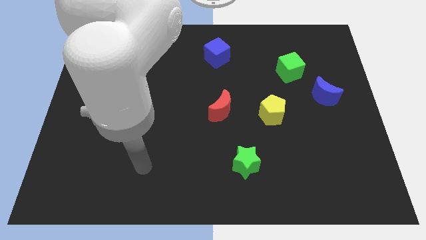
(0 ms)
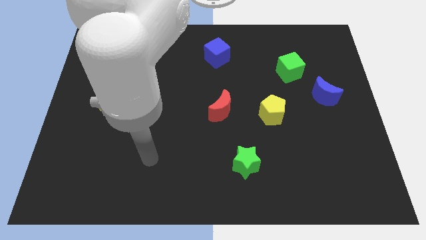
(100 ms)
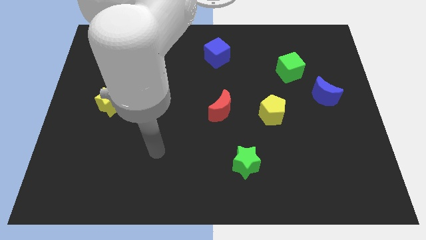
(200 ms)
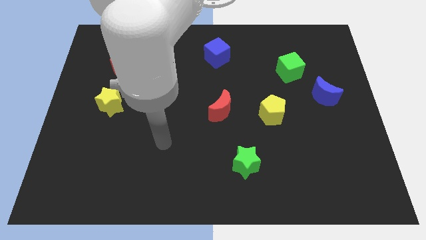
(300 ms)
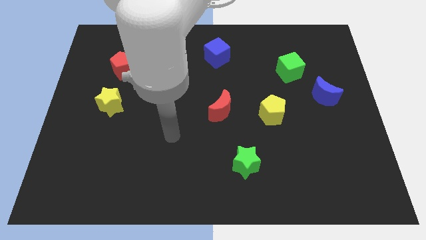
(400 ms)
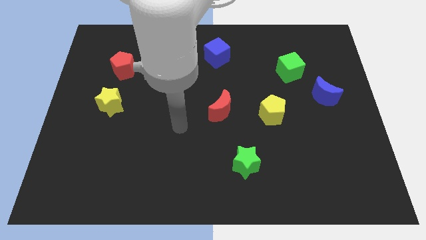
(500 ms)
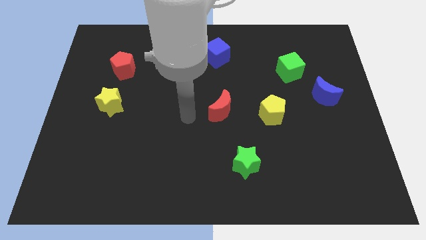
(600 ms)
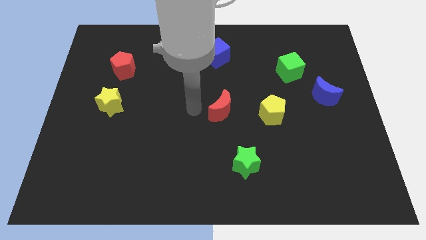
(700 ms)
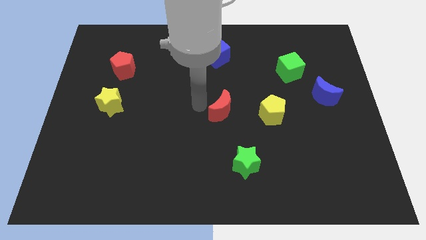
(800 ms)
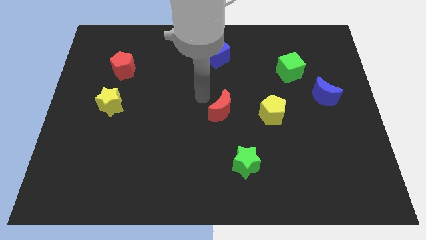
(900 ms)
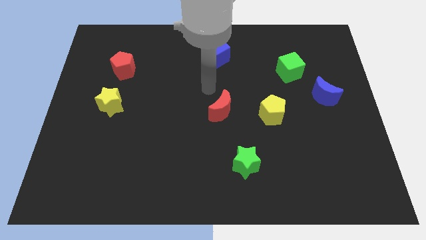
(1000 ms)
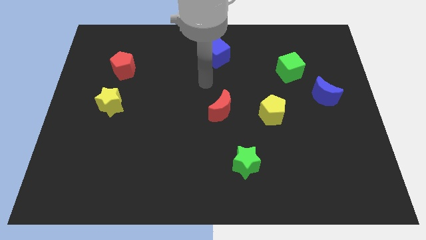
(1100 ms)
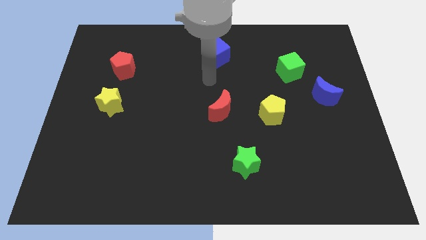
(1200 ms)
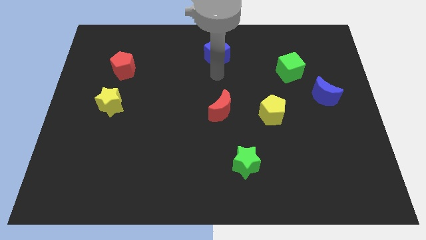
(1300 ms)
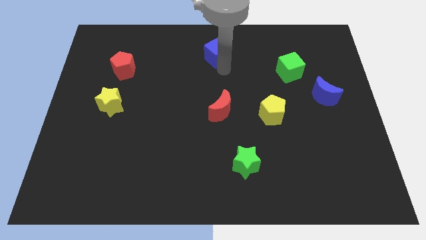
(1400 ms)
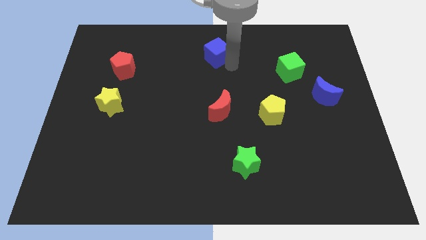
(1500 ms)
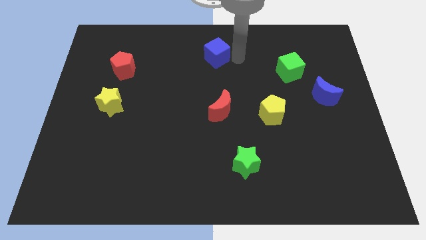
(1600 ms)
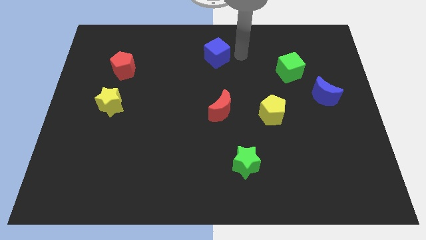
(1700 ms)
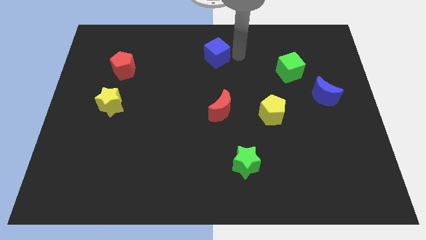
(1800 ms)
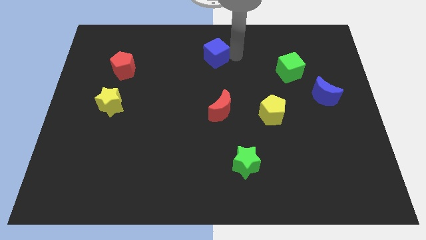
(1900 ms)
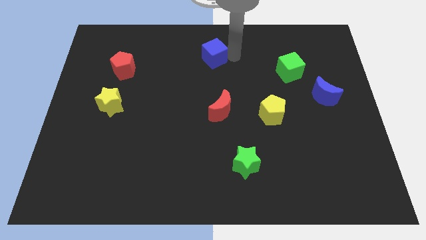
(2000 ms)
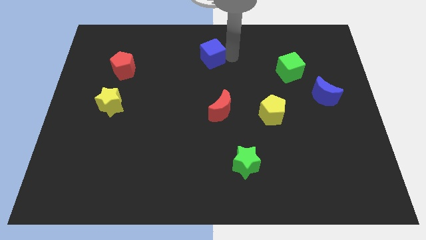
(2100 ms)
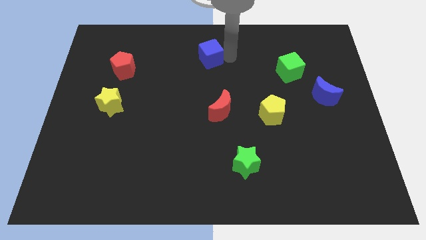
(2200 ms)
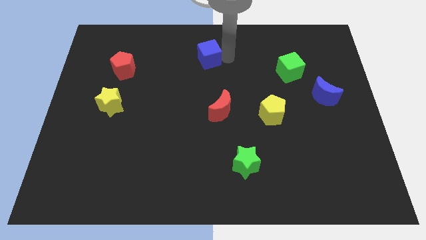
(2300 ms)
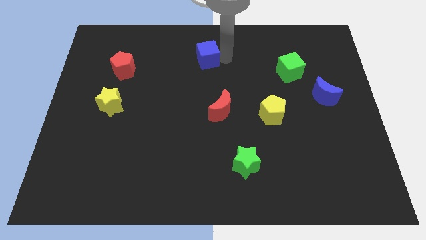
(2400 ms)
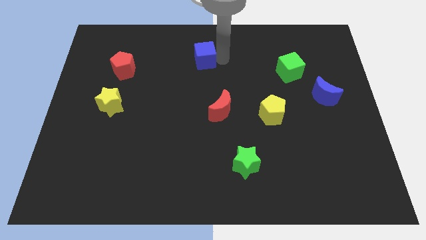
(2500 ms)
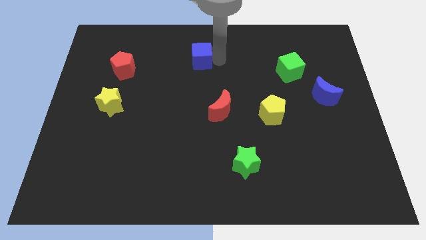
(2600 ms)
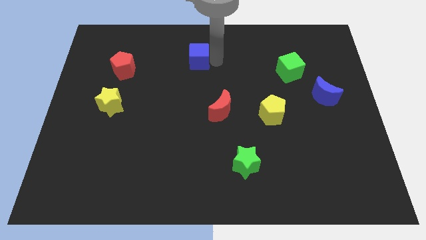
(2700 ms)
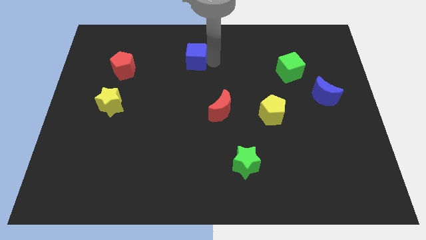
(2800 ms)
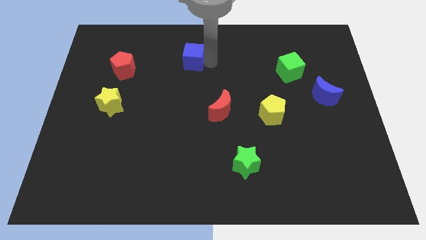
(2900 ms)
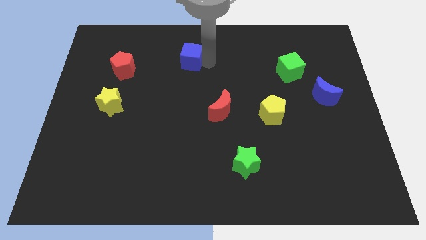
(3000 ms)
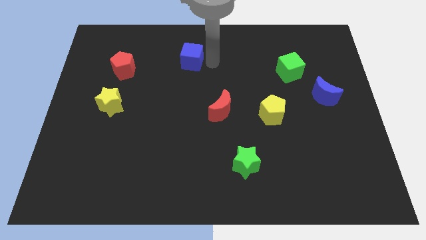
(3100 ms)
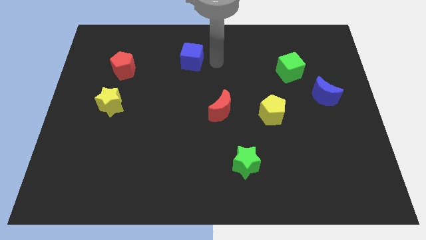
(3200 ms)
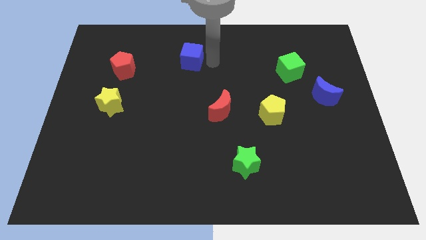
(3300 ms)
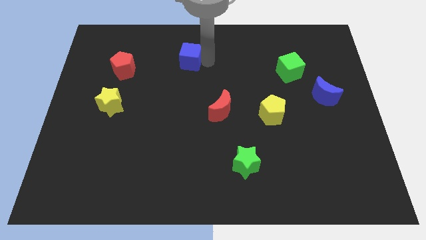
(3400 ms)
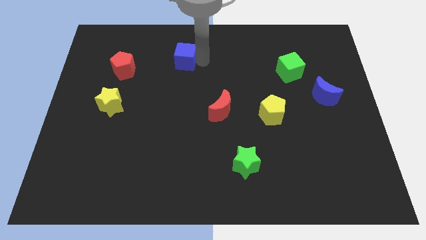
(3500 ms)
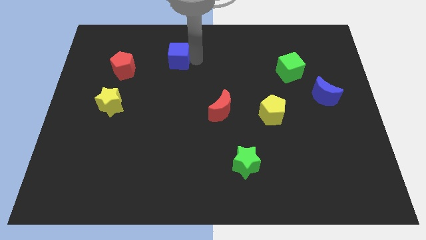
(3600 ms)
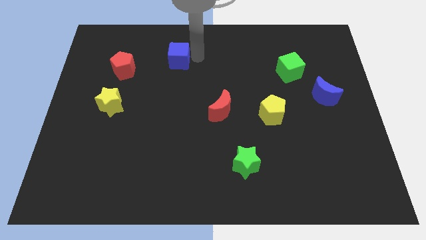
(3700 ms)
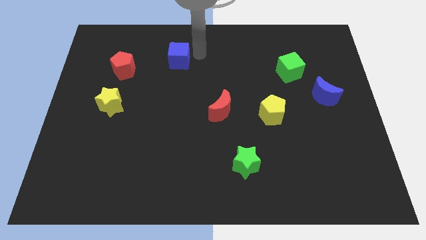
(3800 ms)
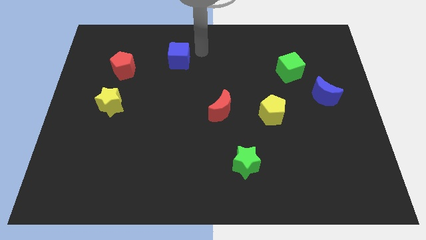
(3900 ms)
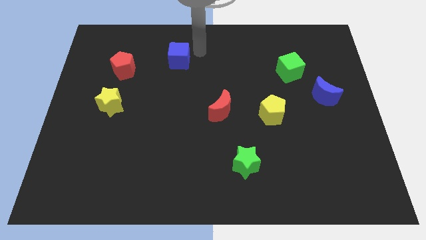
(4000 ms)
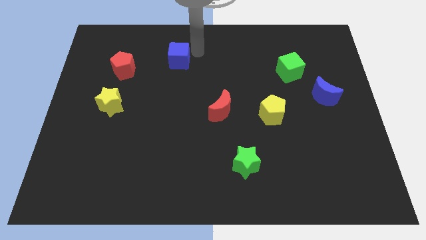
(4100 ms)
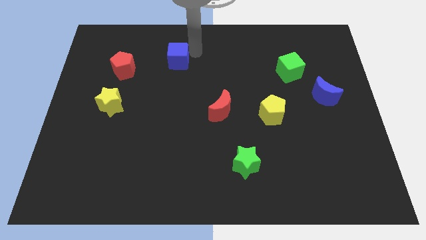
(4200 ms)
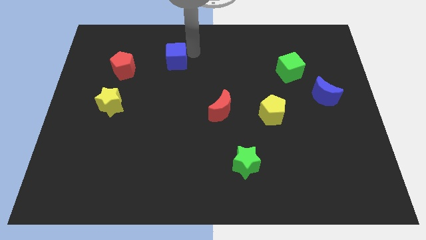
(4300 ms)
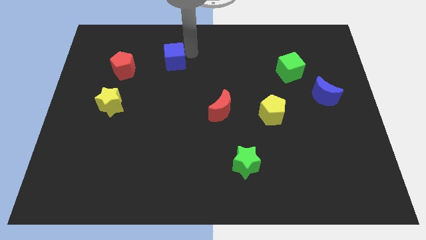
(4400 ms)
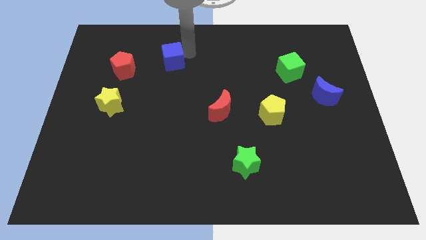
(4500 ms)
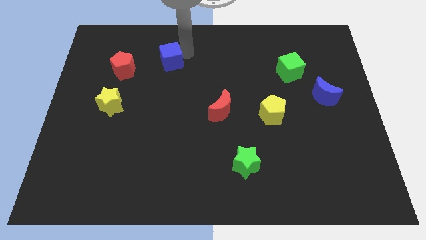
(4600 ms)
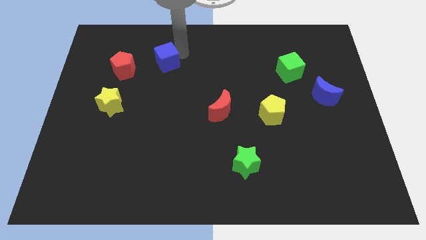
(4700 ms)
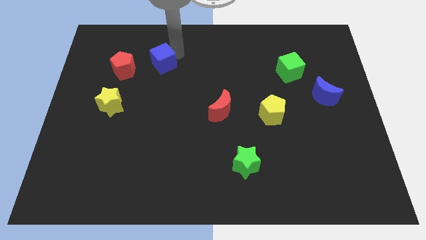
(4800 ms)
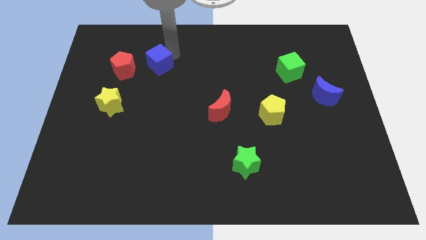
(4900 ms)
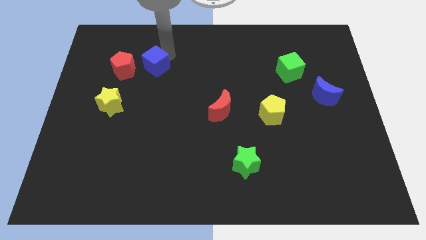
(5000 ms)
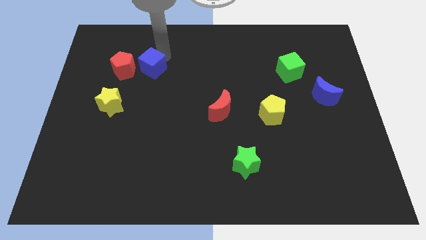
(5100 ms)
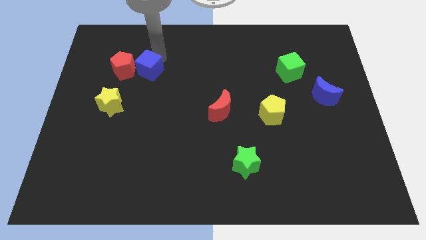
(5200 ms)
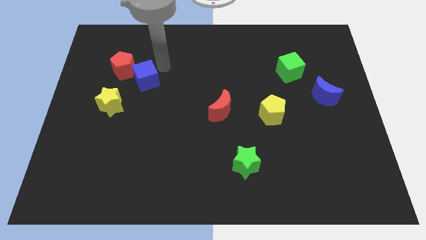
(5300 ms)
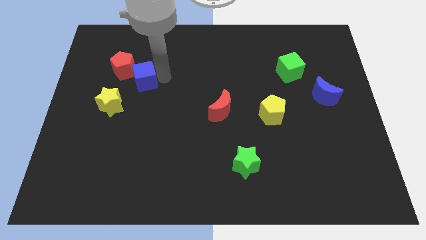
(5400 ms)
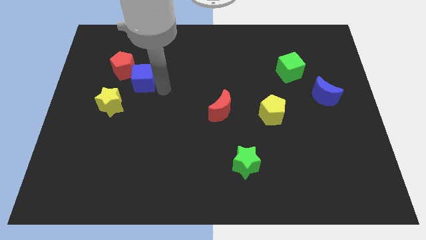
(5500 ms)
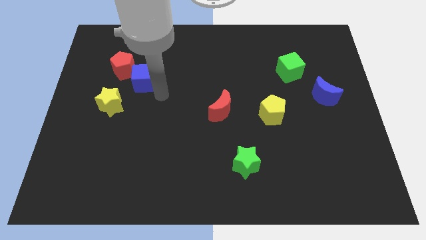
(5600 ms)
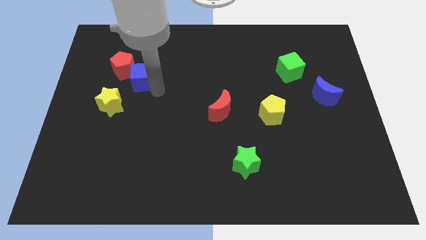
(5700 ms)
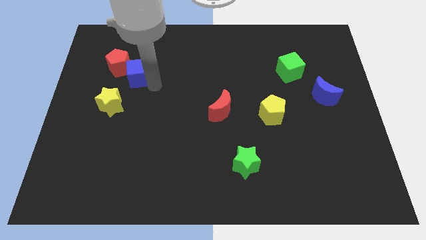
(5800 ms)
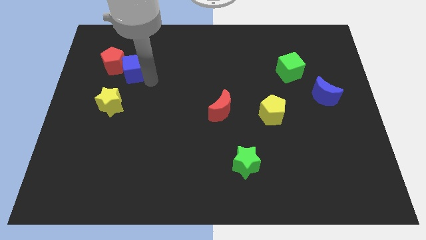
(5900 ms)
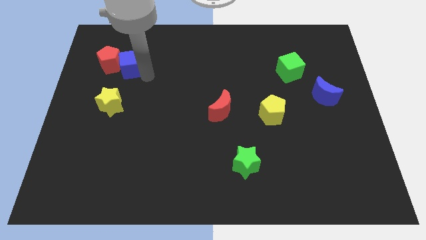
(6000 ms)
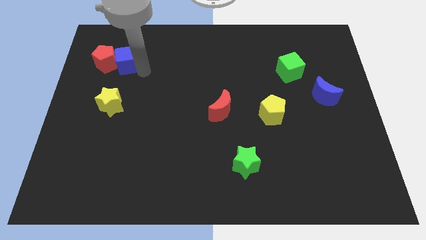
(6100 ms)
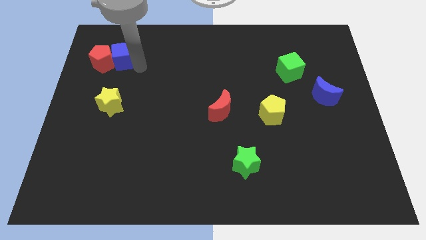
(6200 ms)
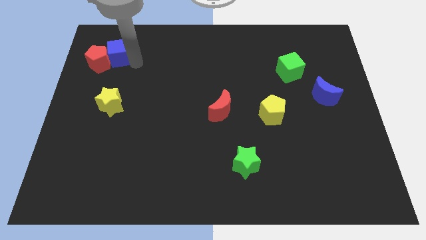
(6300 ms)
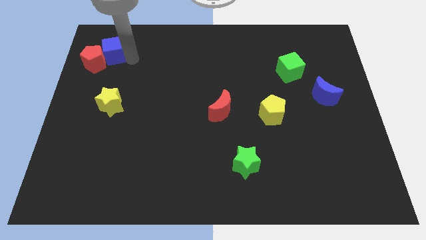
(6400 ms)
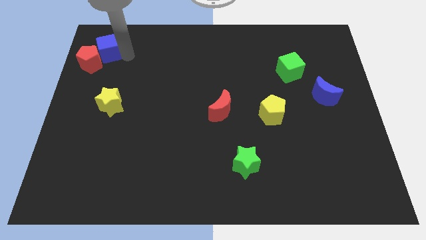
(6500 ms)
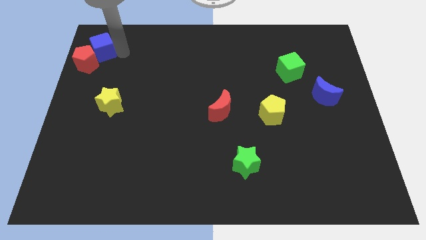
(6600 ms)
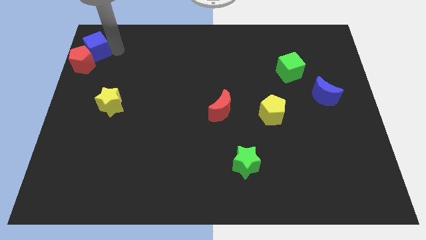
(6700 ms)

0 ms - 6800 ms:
move the blue cube to the top left corner

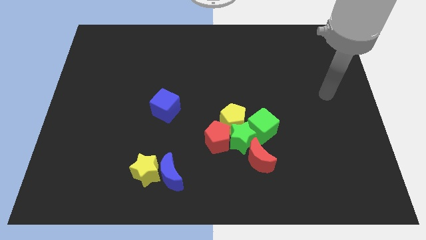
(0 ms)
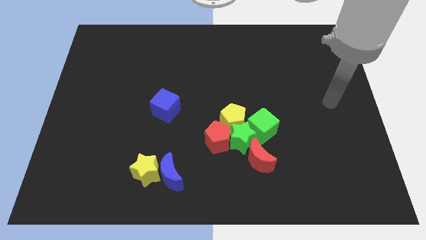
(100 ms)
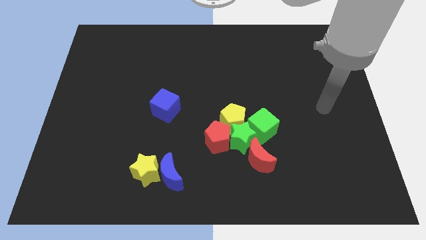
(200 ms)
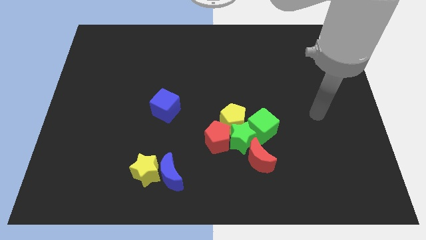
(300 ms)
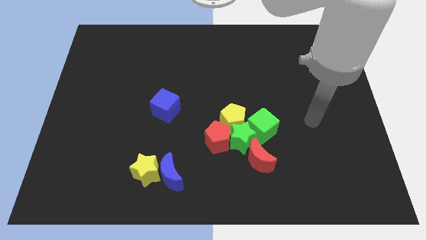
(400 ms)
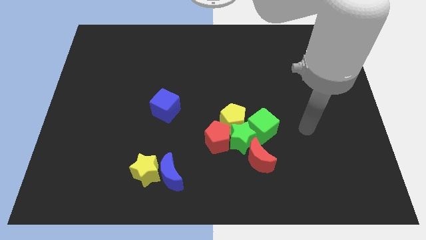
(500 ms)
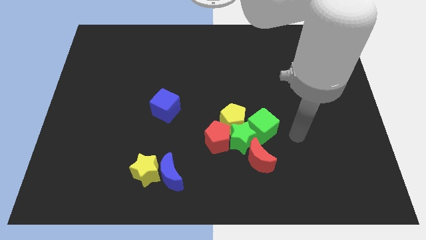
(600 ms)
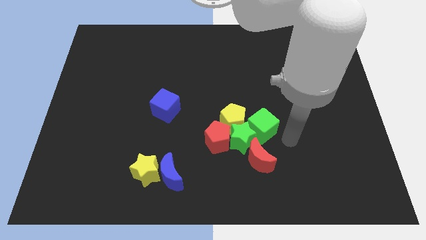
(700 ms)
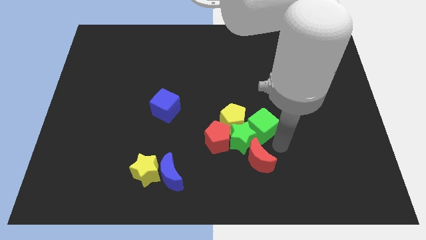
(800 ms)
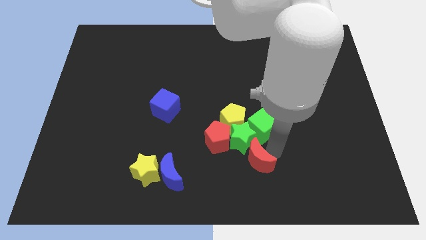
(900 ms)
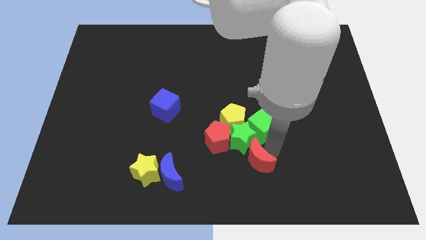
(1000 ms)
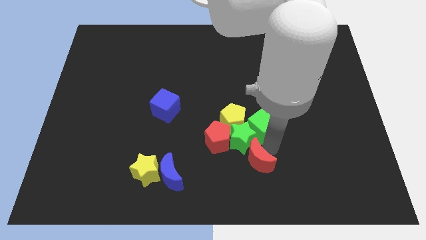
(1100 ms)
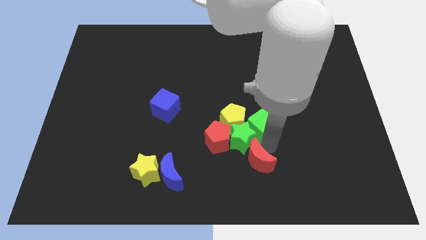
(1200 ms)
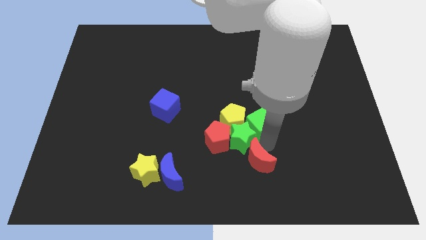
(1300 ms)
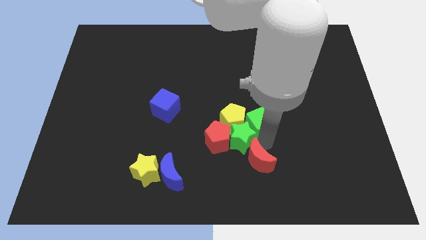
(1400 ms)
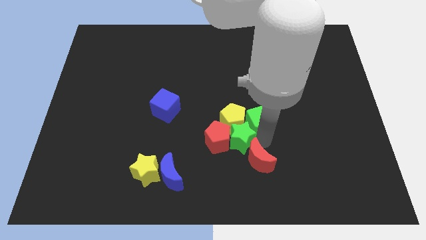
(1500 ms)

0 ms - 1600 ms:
move the green cube to the center of the board
